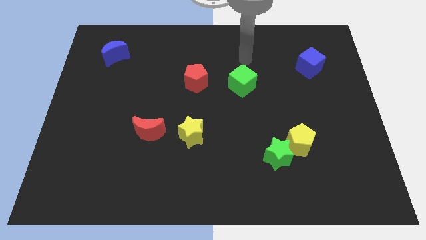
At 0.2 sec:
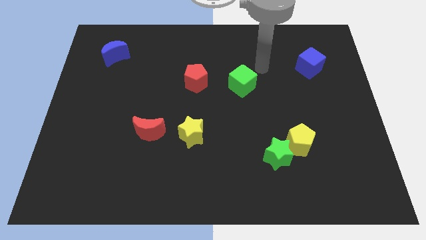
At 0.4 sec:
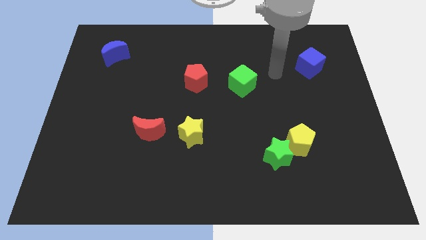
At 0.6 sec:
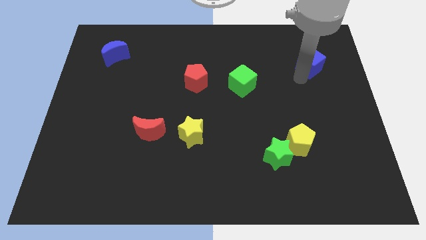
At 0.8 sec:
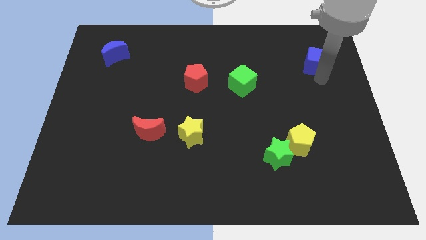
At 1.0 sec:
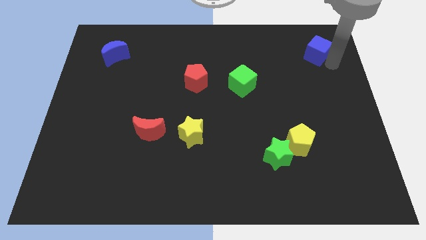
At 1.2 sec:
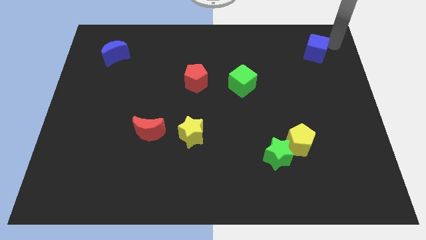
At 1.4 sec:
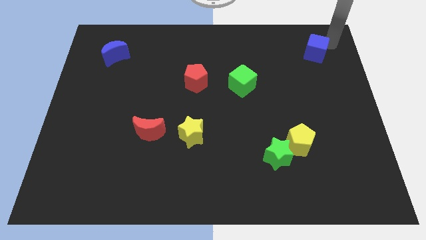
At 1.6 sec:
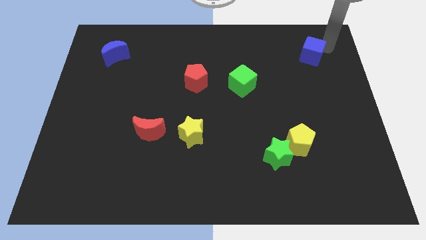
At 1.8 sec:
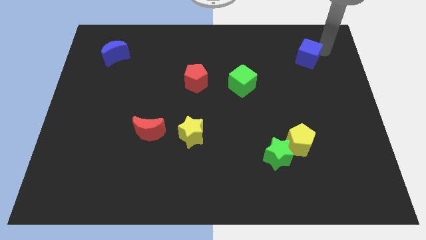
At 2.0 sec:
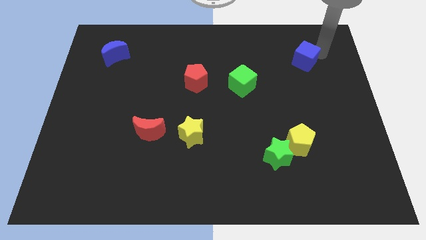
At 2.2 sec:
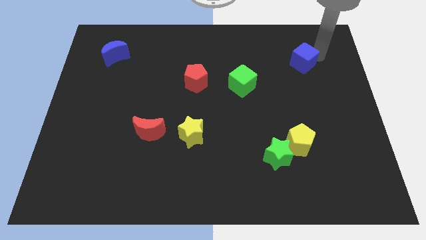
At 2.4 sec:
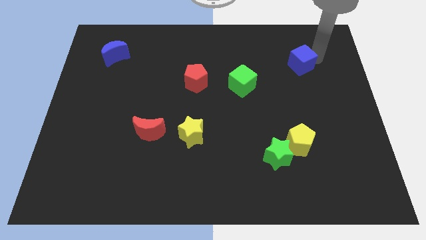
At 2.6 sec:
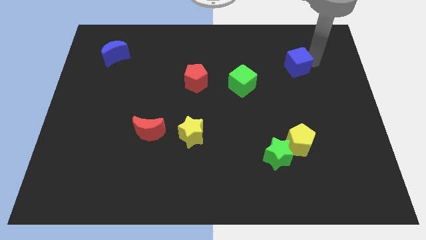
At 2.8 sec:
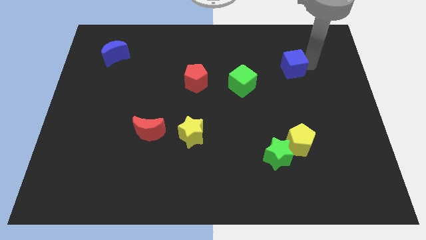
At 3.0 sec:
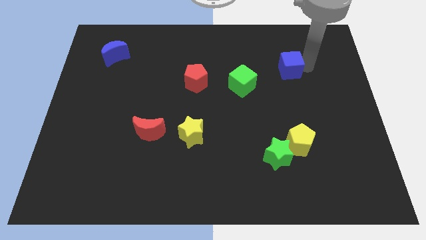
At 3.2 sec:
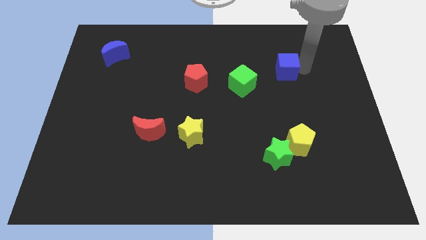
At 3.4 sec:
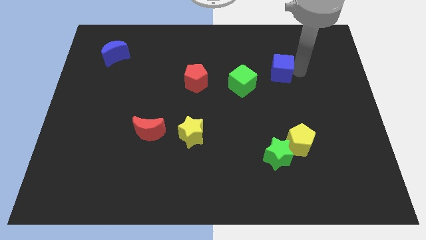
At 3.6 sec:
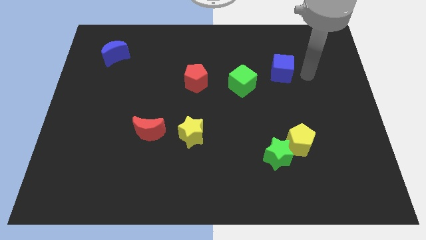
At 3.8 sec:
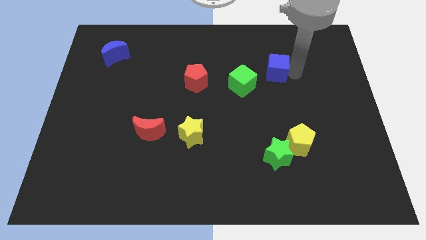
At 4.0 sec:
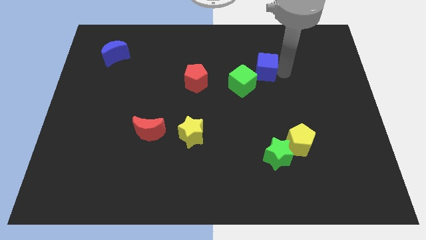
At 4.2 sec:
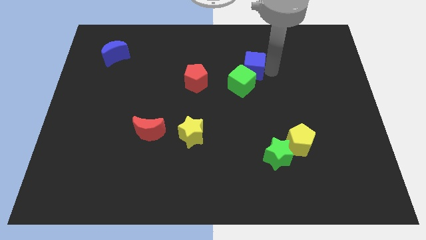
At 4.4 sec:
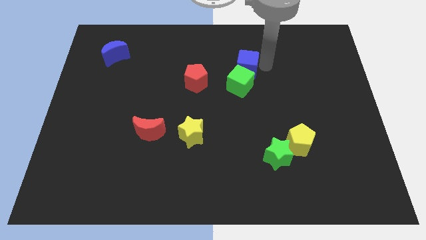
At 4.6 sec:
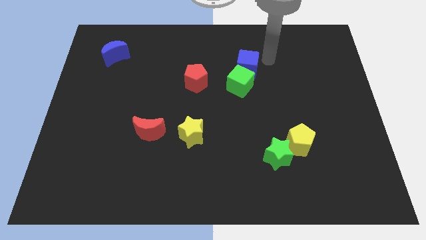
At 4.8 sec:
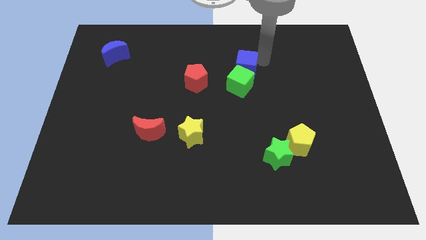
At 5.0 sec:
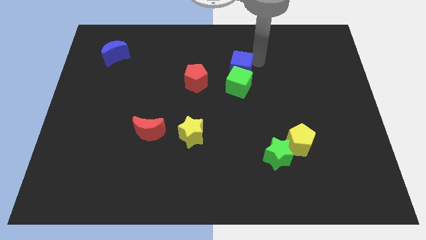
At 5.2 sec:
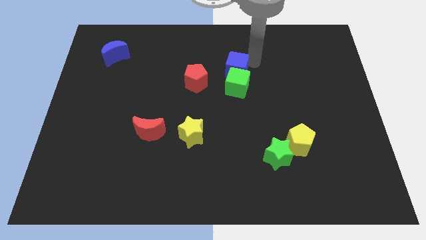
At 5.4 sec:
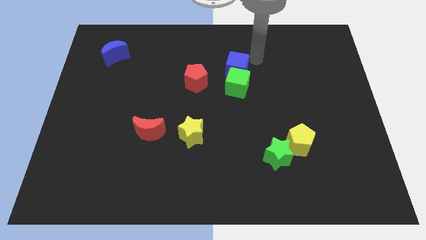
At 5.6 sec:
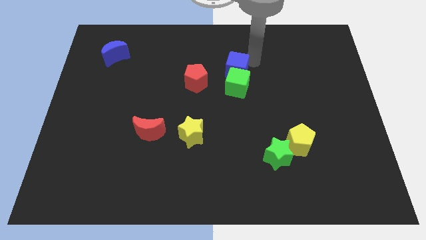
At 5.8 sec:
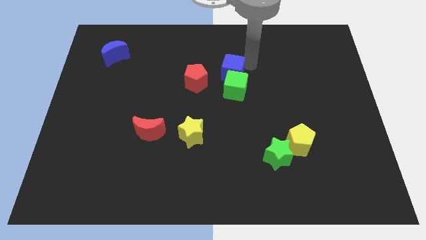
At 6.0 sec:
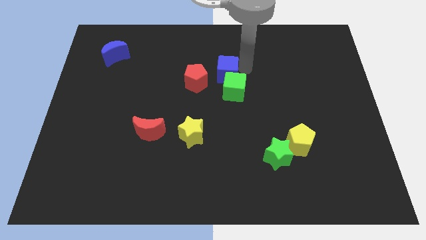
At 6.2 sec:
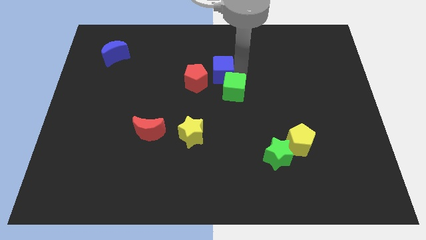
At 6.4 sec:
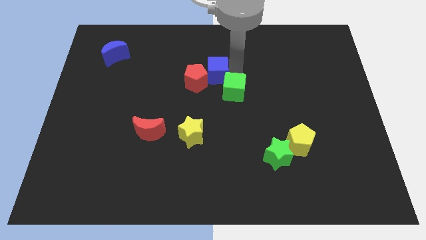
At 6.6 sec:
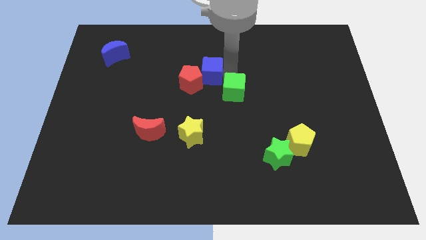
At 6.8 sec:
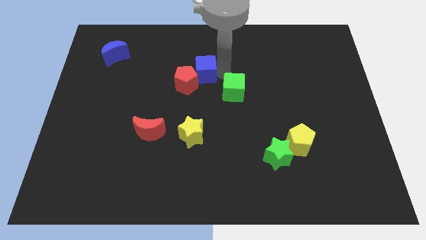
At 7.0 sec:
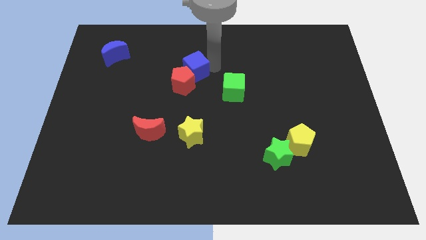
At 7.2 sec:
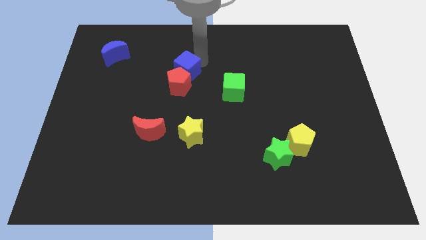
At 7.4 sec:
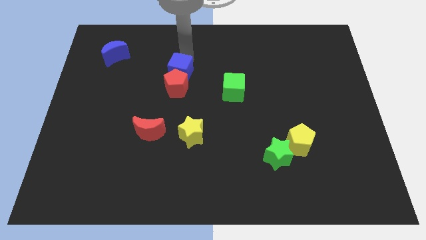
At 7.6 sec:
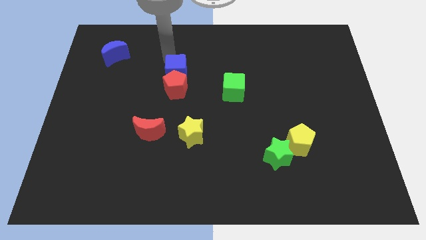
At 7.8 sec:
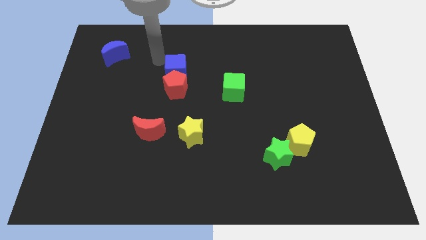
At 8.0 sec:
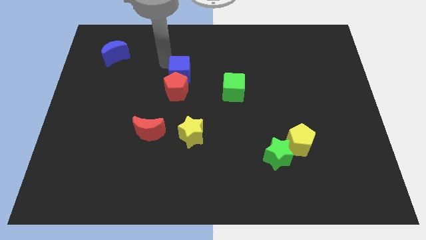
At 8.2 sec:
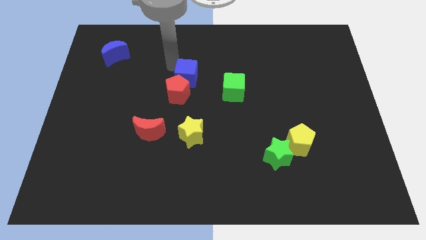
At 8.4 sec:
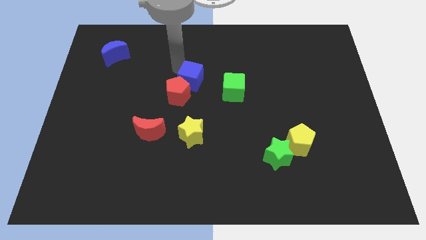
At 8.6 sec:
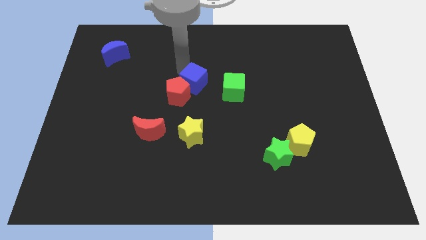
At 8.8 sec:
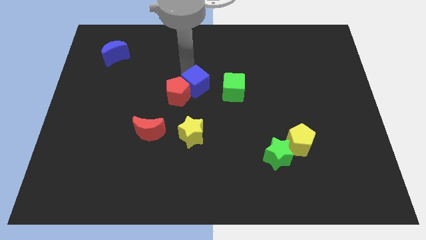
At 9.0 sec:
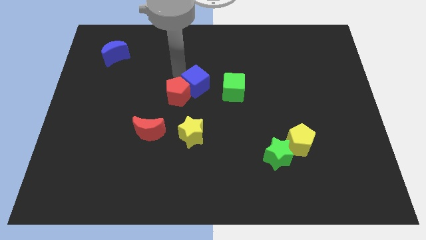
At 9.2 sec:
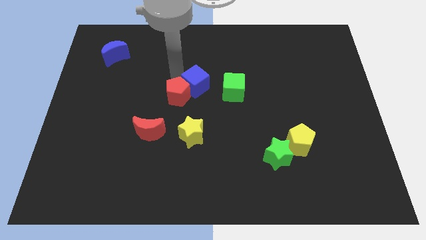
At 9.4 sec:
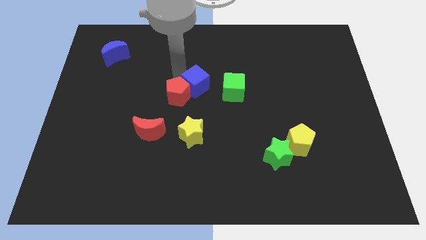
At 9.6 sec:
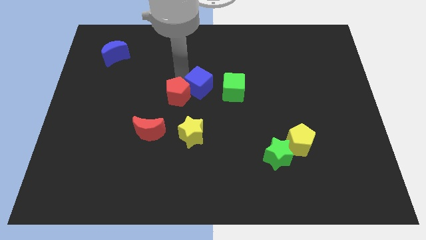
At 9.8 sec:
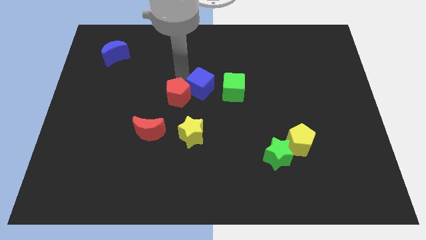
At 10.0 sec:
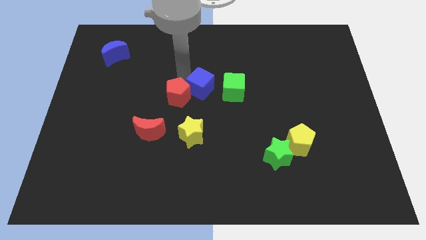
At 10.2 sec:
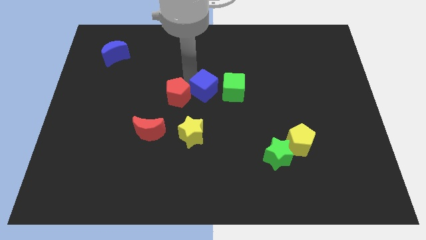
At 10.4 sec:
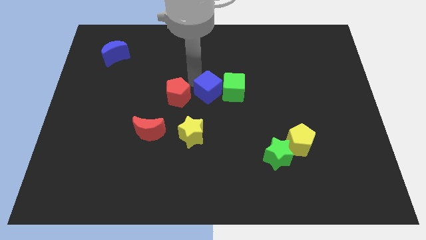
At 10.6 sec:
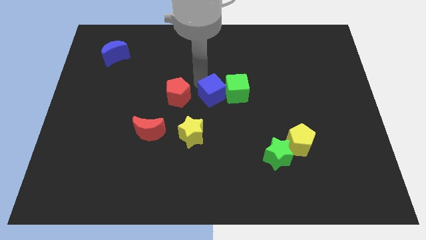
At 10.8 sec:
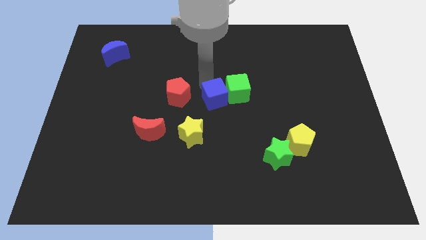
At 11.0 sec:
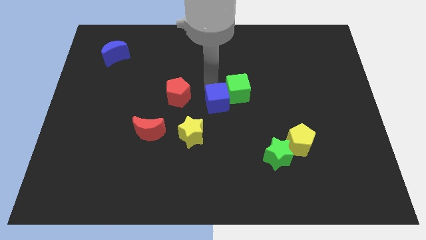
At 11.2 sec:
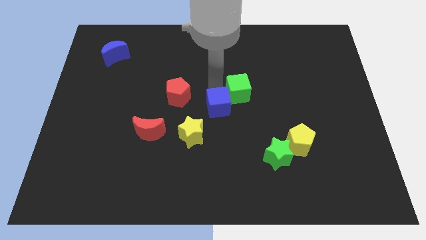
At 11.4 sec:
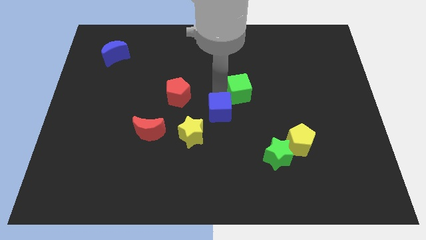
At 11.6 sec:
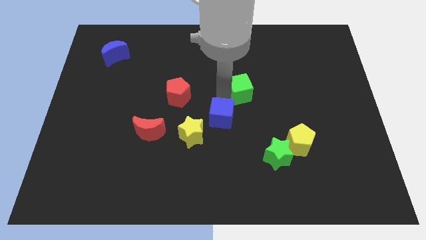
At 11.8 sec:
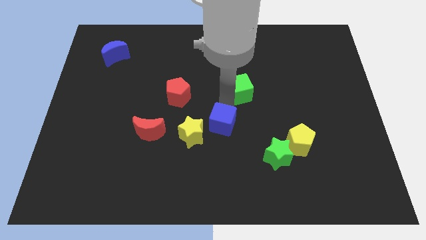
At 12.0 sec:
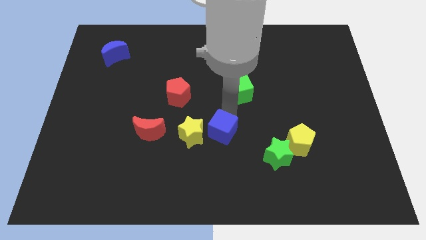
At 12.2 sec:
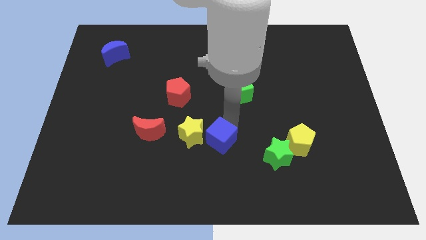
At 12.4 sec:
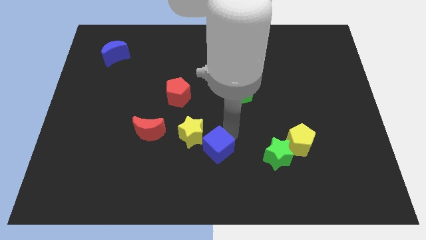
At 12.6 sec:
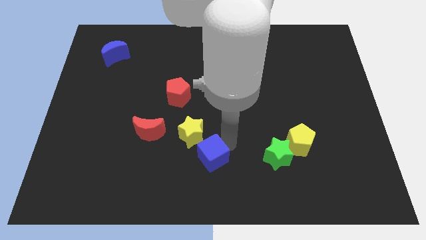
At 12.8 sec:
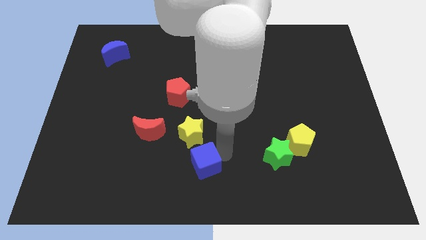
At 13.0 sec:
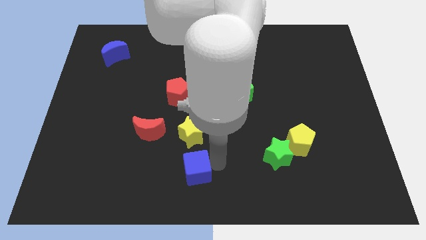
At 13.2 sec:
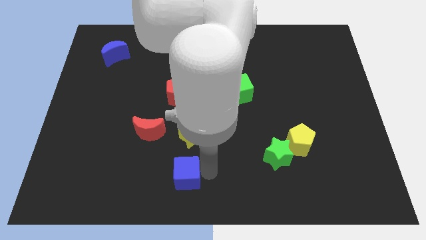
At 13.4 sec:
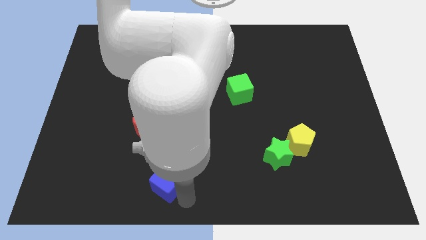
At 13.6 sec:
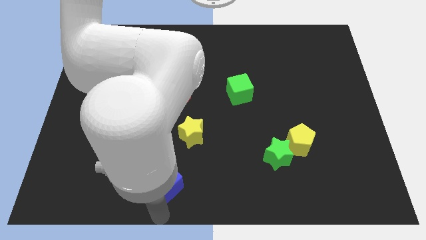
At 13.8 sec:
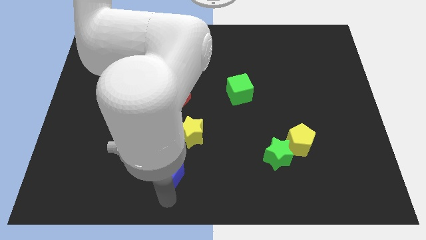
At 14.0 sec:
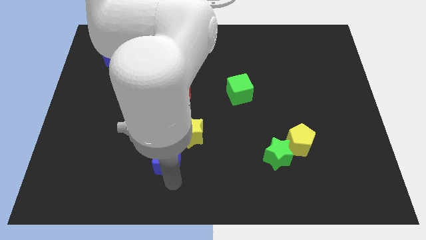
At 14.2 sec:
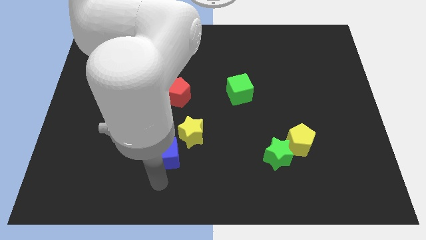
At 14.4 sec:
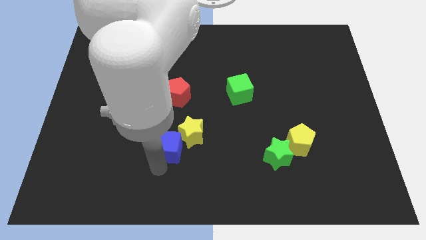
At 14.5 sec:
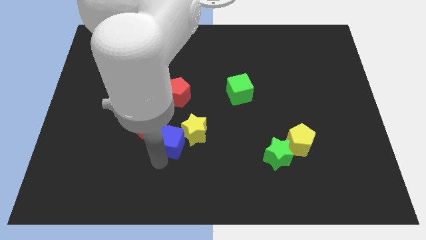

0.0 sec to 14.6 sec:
slide the blue cube close to the red moon
